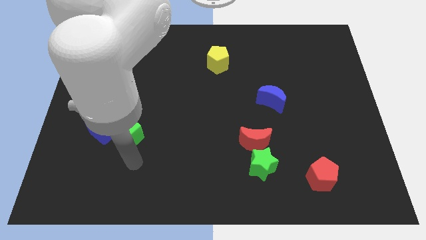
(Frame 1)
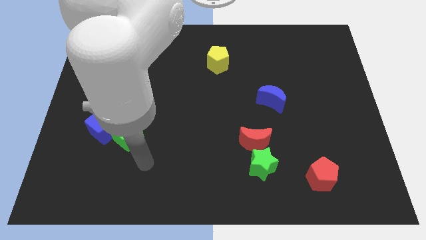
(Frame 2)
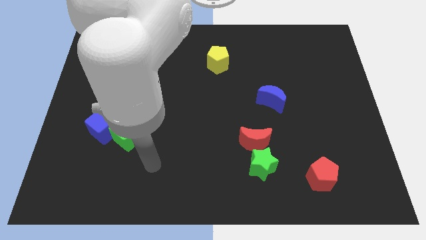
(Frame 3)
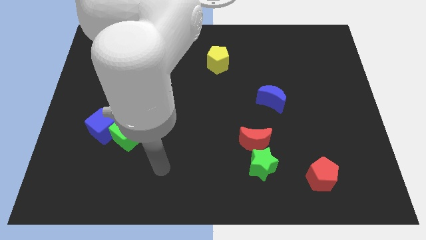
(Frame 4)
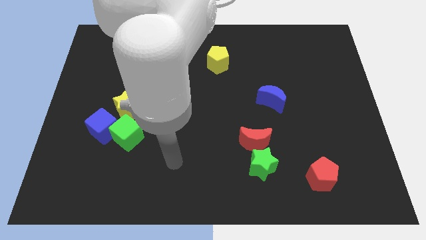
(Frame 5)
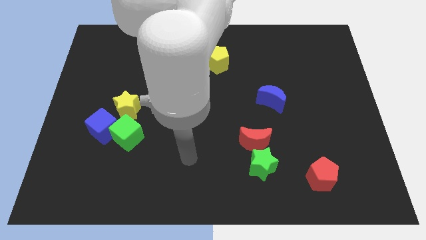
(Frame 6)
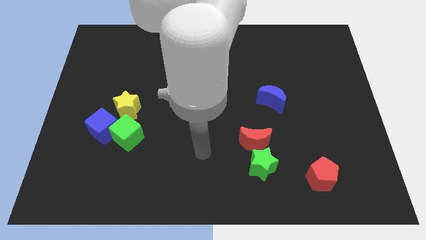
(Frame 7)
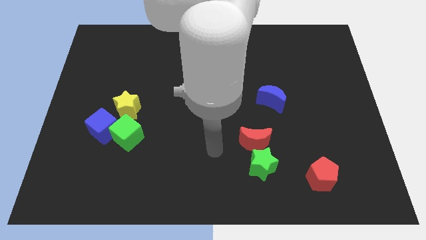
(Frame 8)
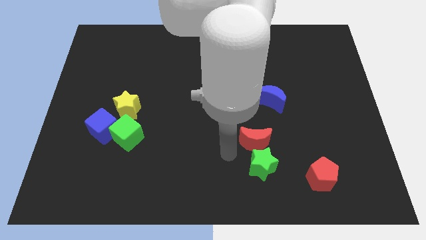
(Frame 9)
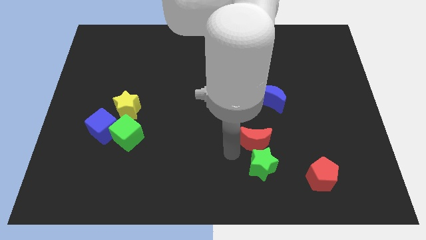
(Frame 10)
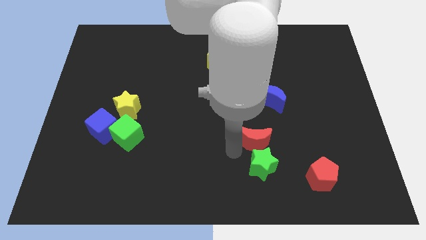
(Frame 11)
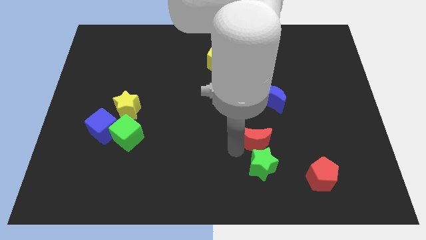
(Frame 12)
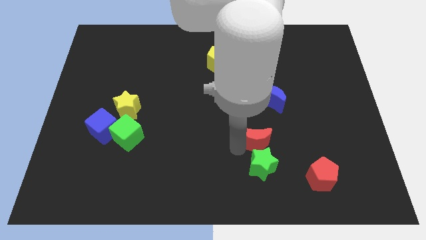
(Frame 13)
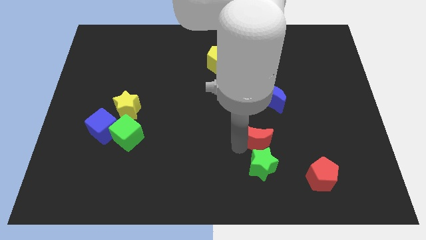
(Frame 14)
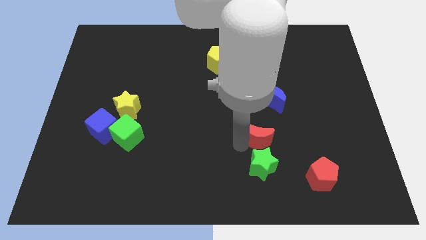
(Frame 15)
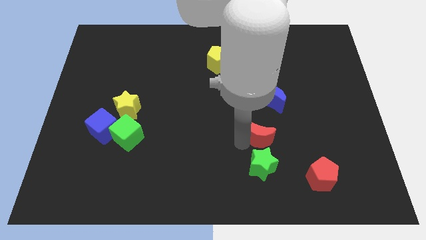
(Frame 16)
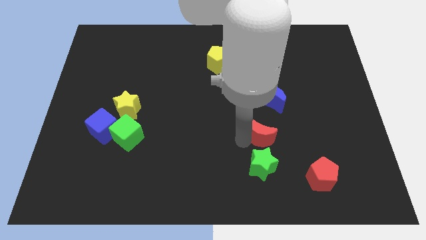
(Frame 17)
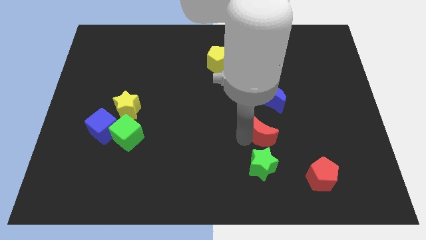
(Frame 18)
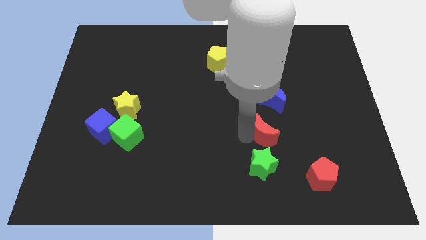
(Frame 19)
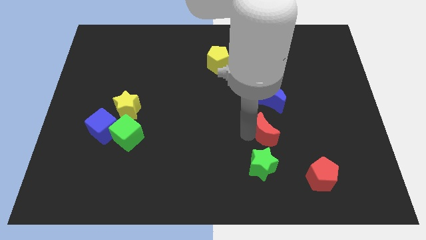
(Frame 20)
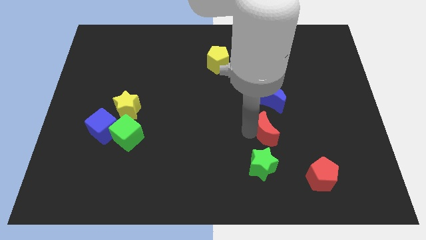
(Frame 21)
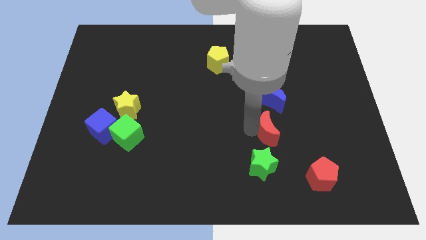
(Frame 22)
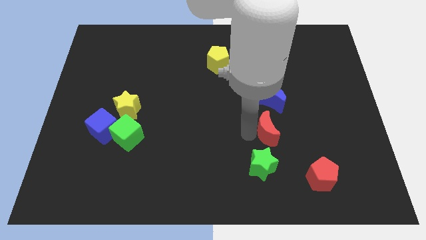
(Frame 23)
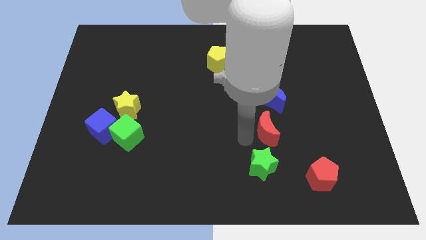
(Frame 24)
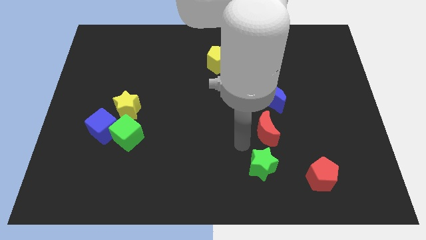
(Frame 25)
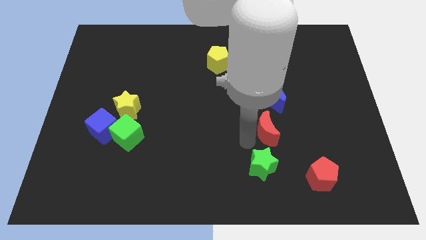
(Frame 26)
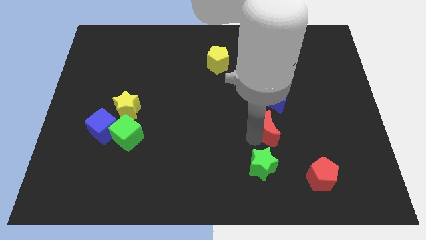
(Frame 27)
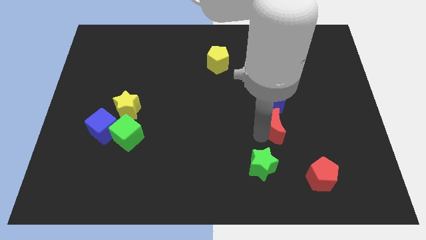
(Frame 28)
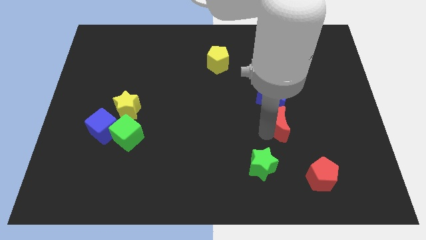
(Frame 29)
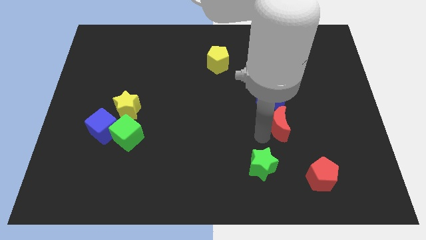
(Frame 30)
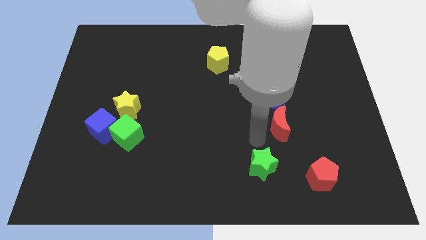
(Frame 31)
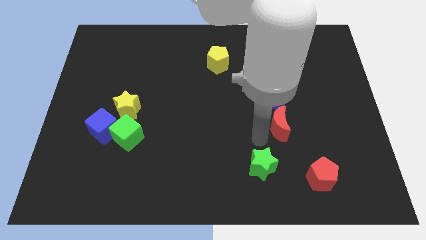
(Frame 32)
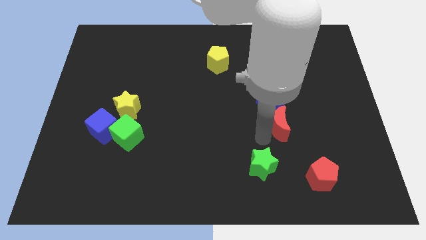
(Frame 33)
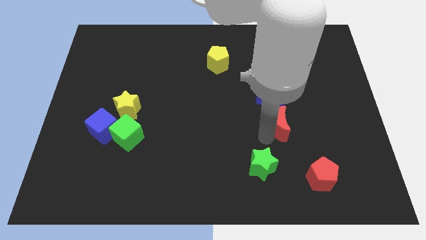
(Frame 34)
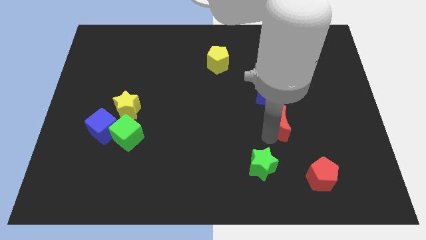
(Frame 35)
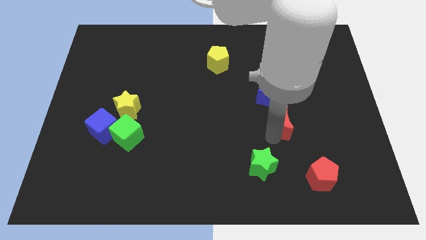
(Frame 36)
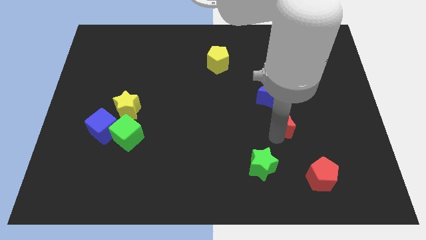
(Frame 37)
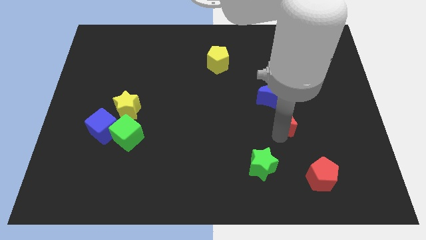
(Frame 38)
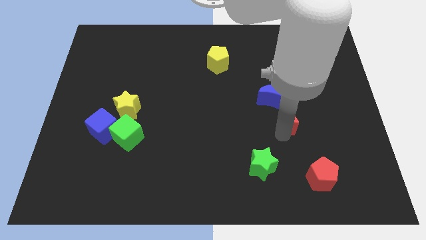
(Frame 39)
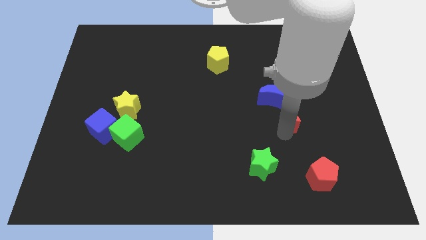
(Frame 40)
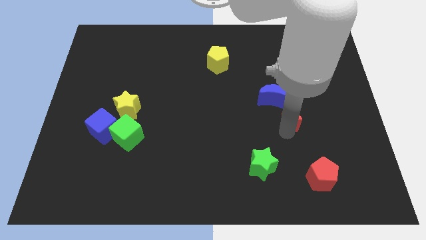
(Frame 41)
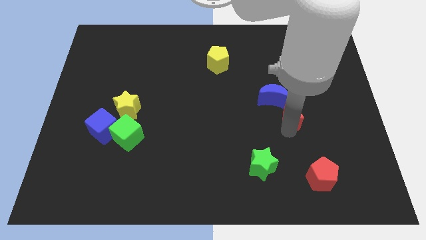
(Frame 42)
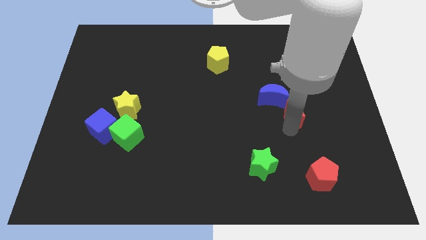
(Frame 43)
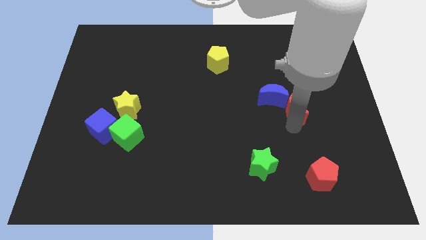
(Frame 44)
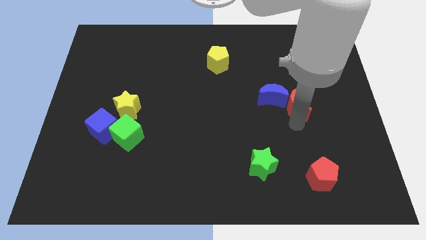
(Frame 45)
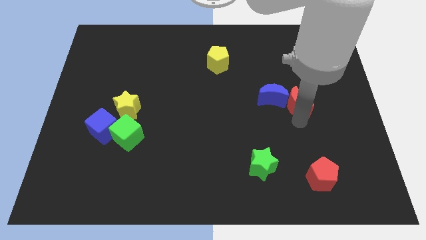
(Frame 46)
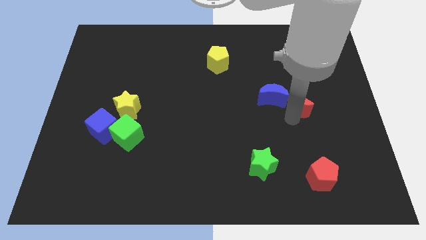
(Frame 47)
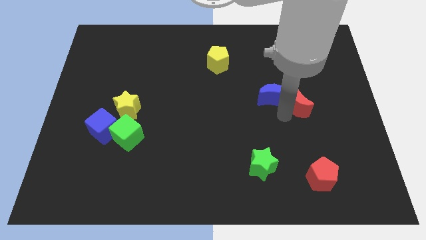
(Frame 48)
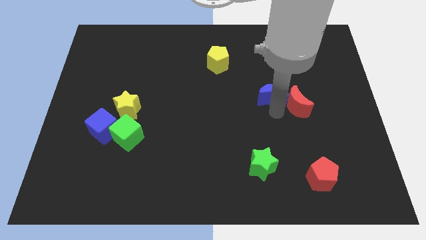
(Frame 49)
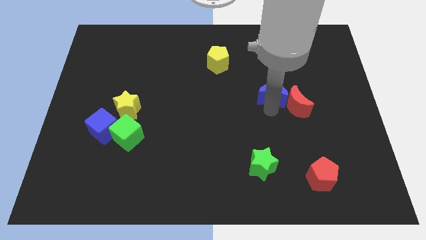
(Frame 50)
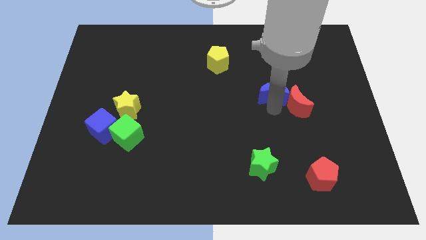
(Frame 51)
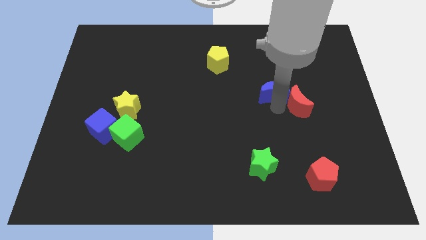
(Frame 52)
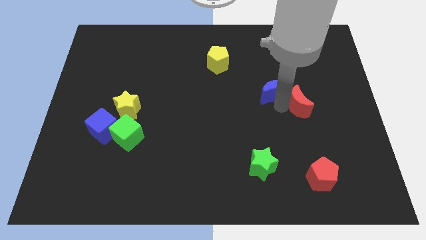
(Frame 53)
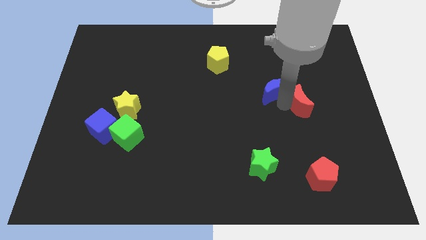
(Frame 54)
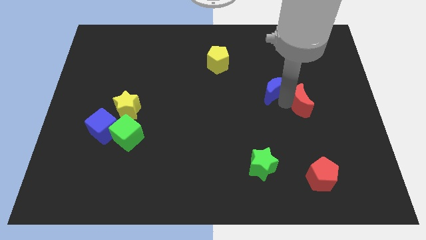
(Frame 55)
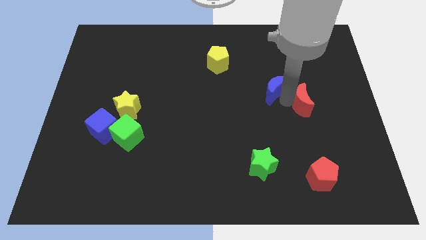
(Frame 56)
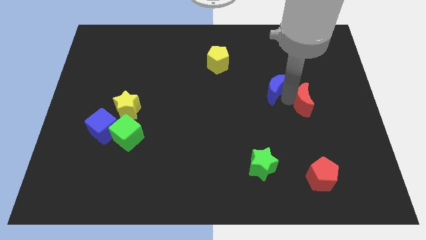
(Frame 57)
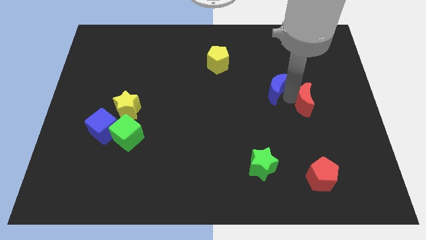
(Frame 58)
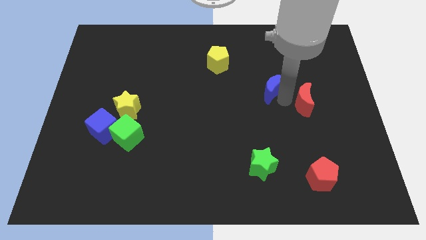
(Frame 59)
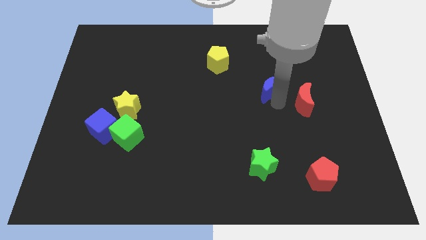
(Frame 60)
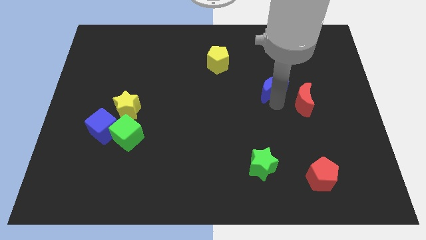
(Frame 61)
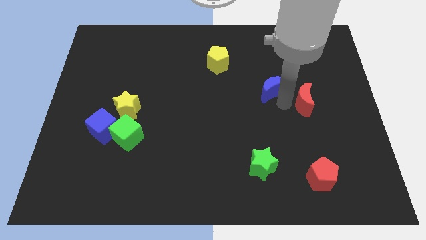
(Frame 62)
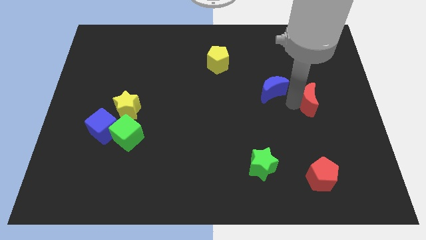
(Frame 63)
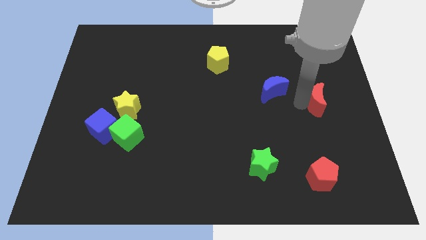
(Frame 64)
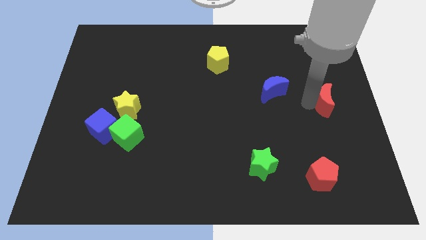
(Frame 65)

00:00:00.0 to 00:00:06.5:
slide the red moon to the right side

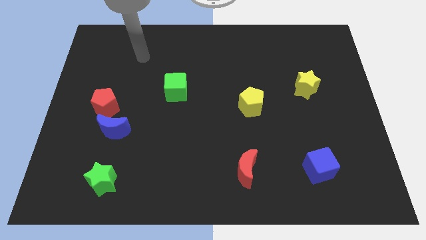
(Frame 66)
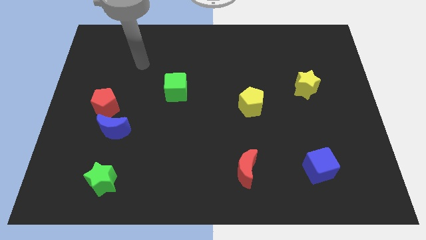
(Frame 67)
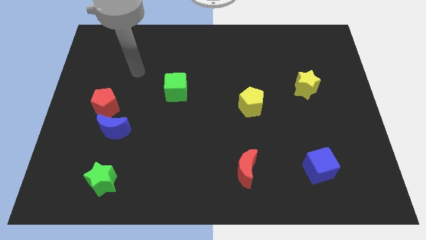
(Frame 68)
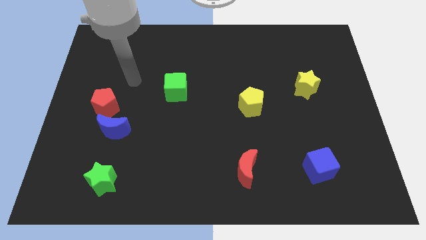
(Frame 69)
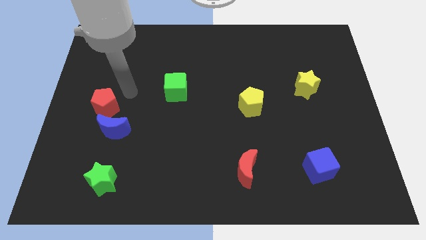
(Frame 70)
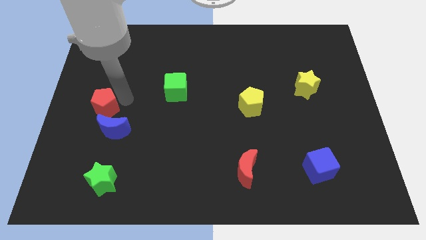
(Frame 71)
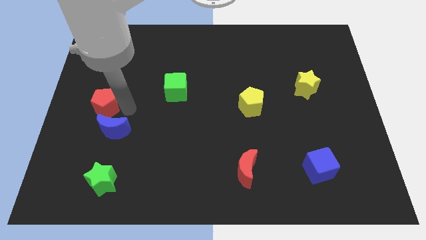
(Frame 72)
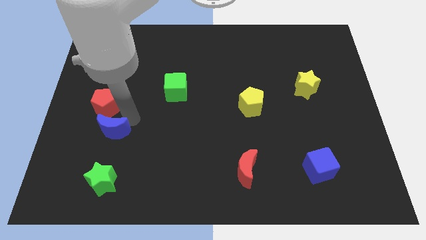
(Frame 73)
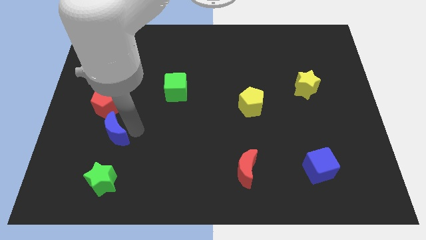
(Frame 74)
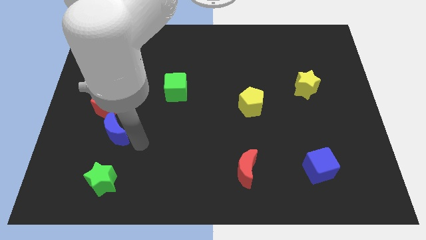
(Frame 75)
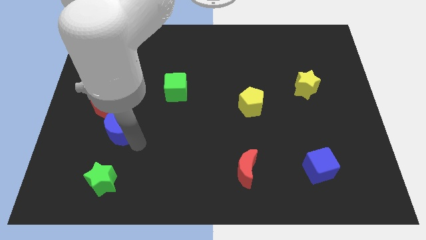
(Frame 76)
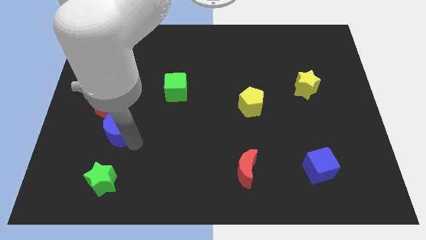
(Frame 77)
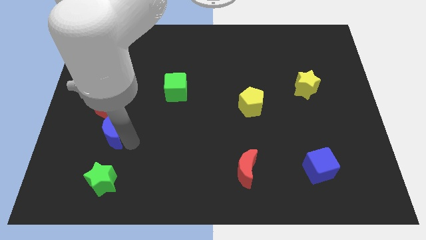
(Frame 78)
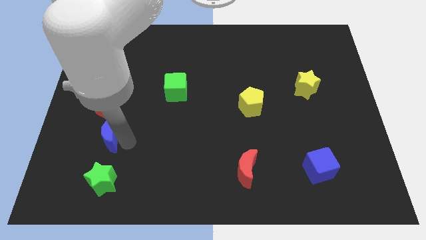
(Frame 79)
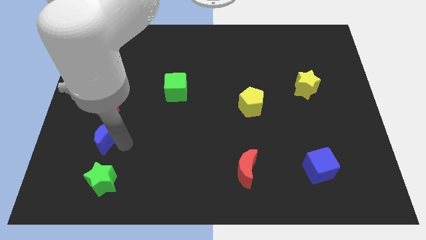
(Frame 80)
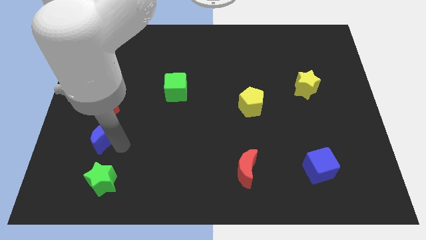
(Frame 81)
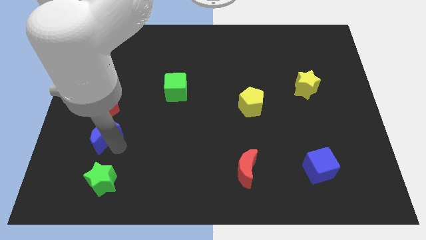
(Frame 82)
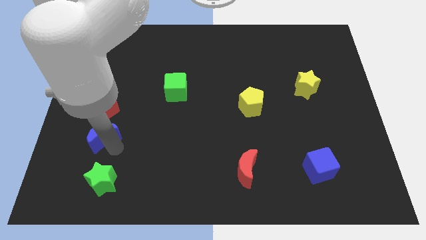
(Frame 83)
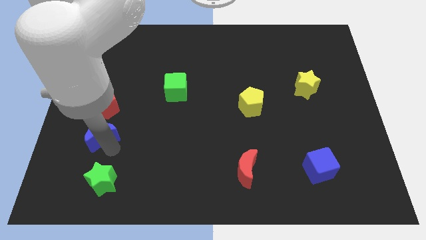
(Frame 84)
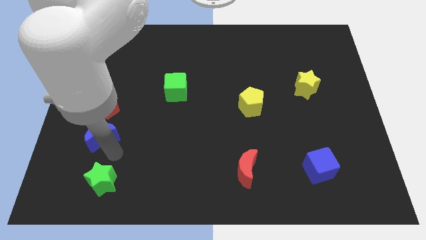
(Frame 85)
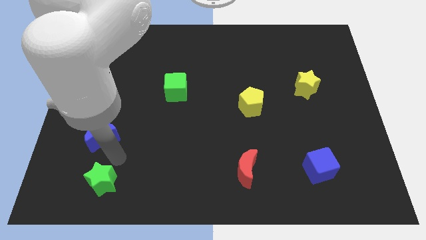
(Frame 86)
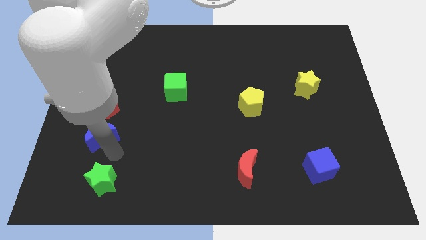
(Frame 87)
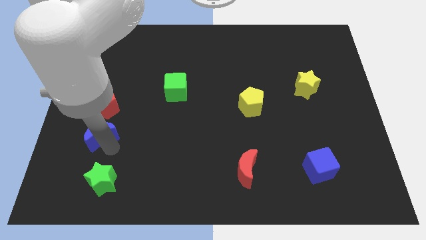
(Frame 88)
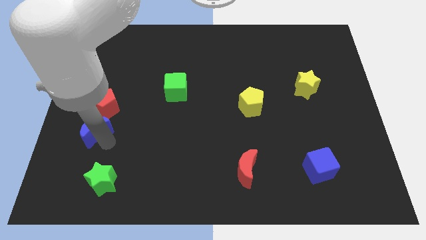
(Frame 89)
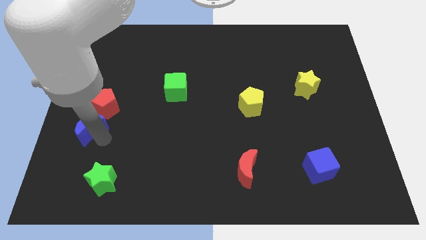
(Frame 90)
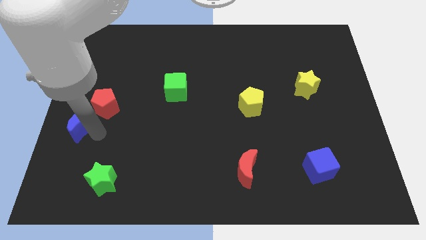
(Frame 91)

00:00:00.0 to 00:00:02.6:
push the blue moon to the left side
